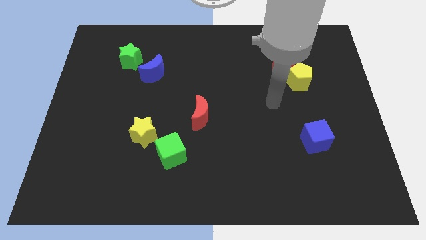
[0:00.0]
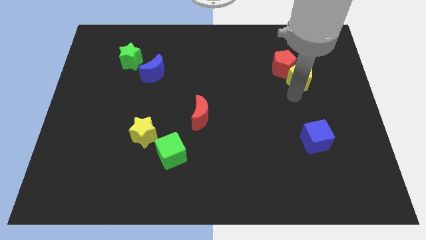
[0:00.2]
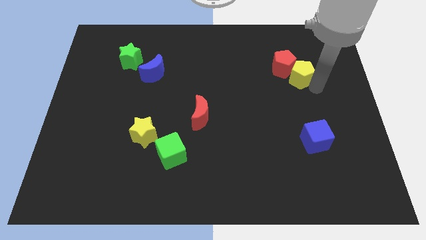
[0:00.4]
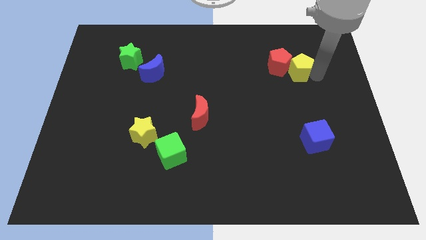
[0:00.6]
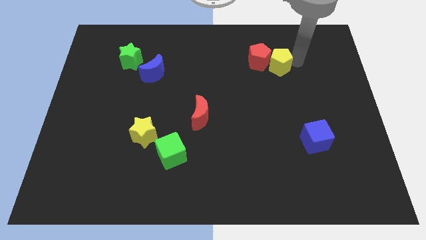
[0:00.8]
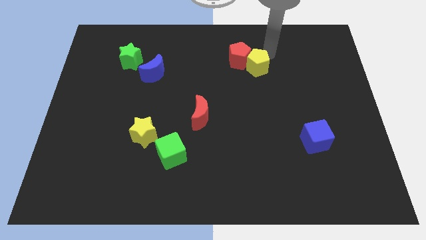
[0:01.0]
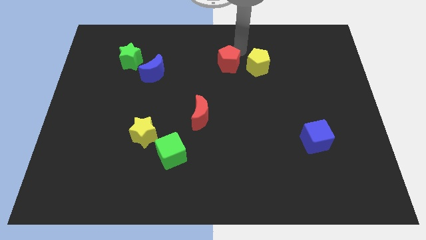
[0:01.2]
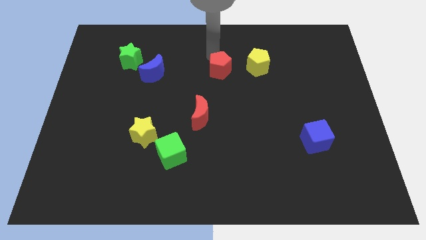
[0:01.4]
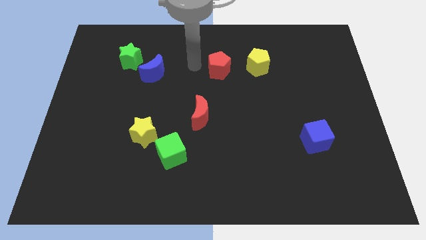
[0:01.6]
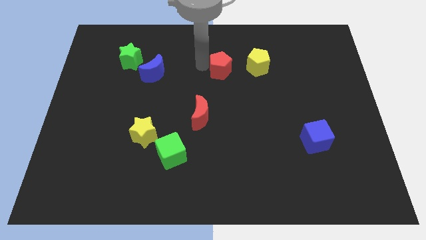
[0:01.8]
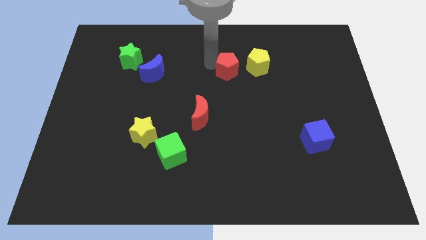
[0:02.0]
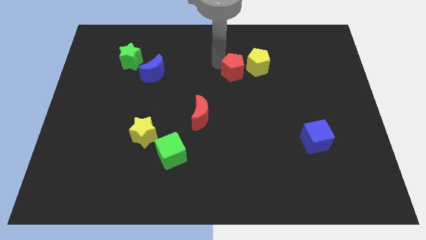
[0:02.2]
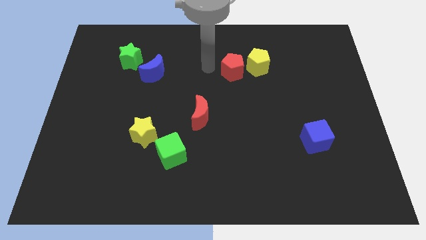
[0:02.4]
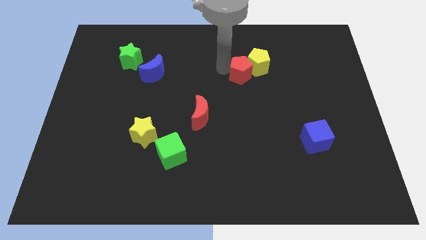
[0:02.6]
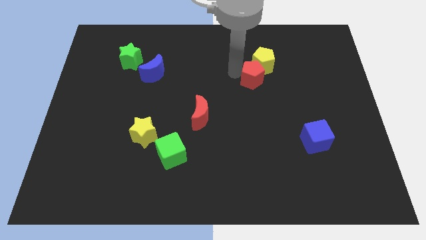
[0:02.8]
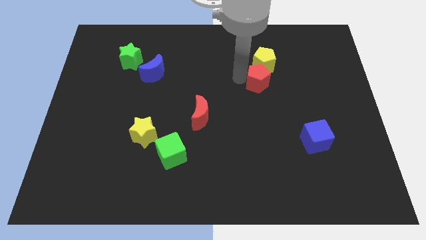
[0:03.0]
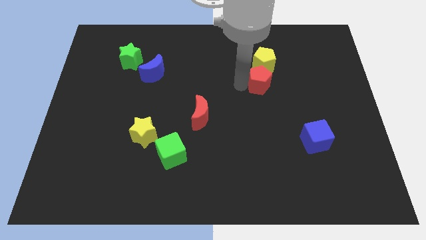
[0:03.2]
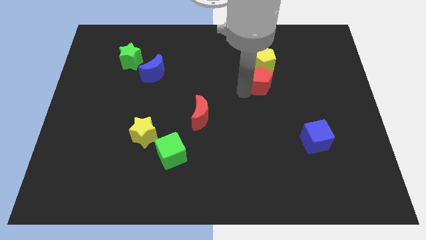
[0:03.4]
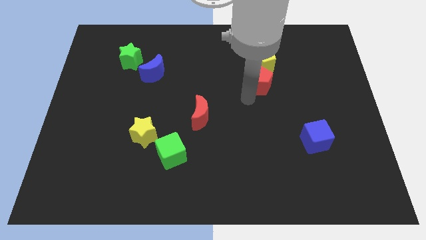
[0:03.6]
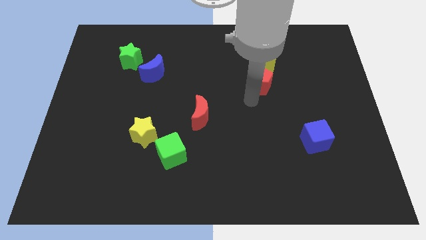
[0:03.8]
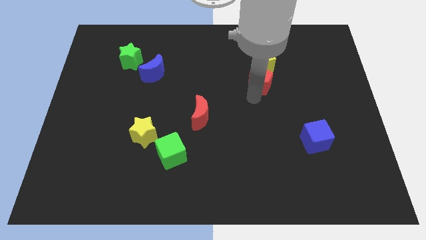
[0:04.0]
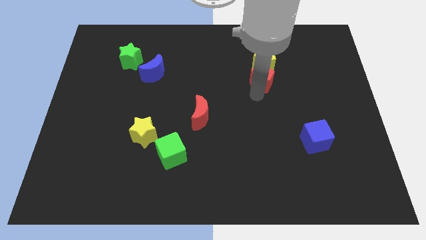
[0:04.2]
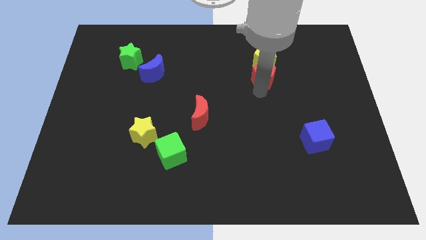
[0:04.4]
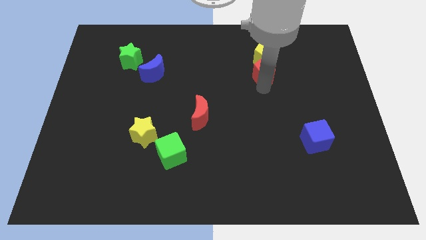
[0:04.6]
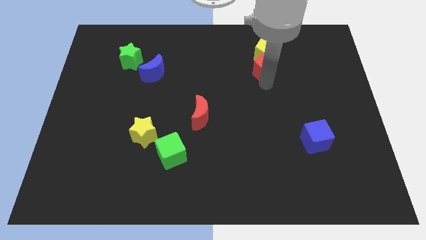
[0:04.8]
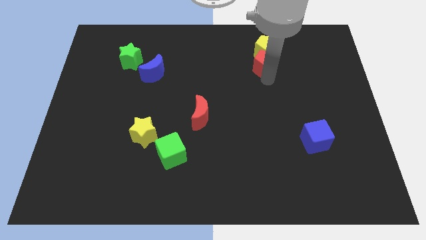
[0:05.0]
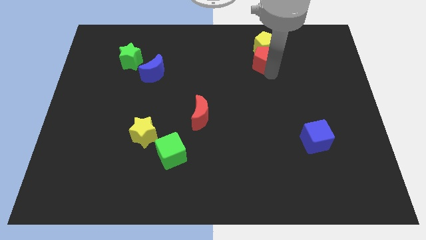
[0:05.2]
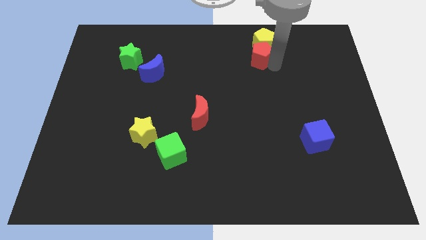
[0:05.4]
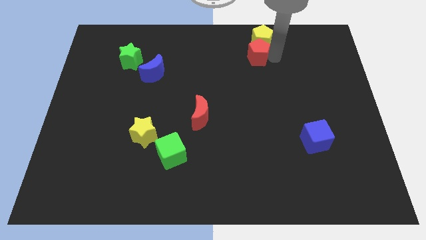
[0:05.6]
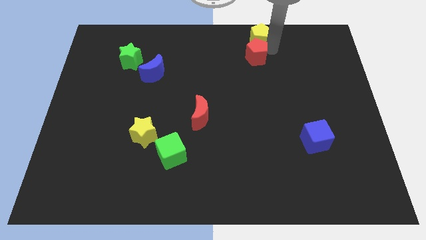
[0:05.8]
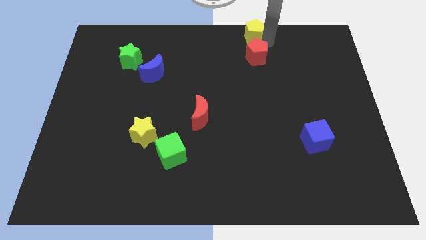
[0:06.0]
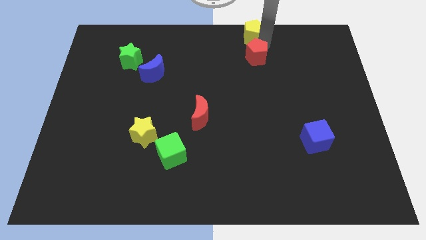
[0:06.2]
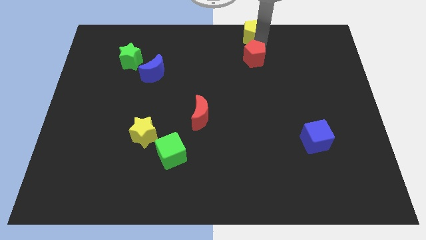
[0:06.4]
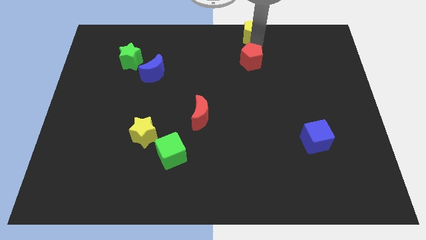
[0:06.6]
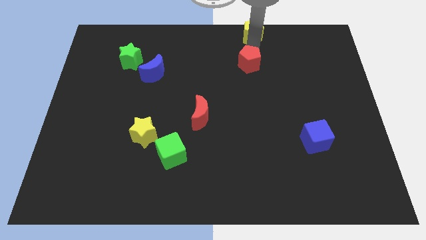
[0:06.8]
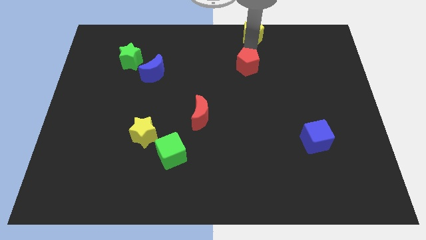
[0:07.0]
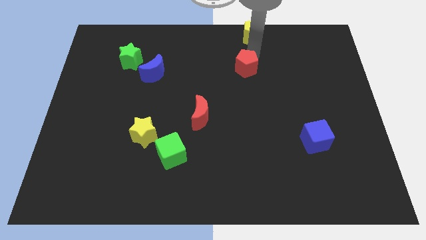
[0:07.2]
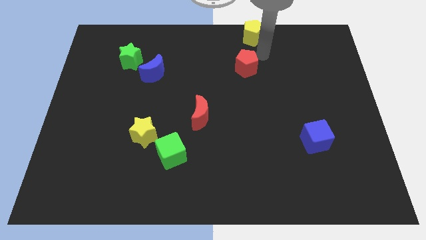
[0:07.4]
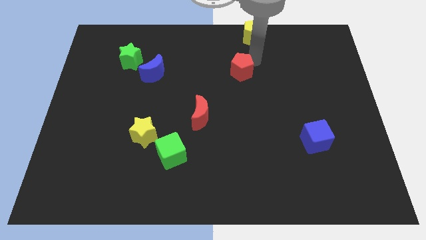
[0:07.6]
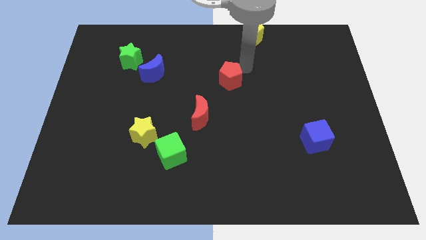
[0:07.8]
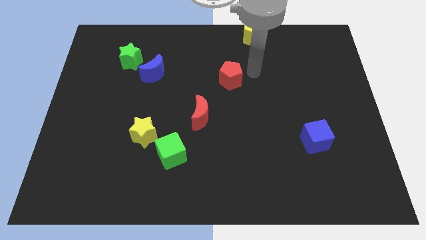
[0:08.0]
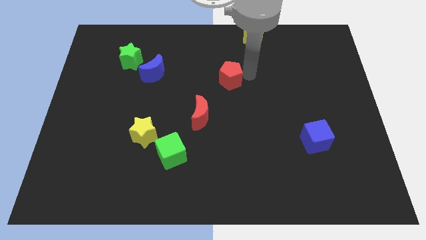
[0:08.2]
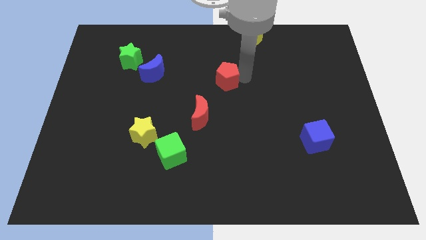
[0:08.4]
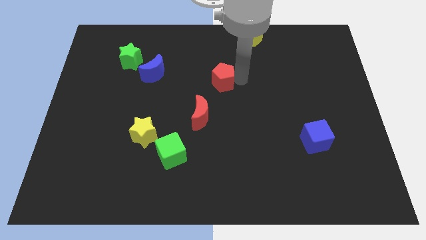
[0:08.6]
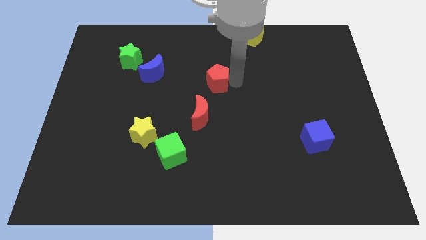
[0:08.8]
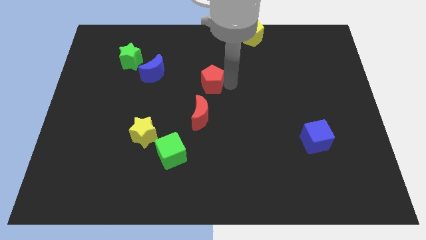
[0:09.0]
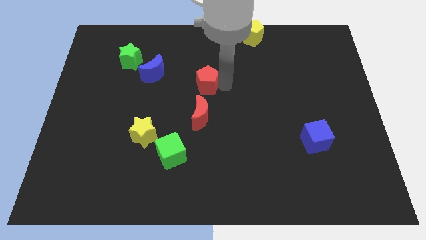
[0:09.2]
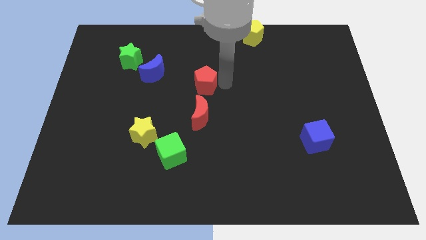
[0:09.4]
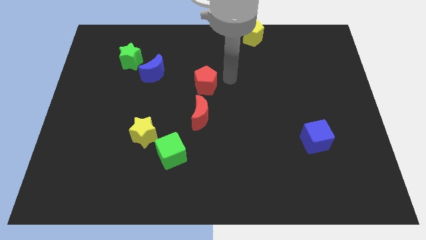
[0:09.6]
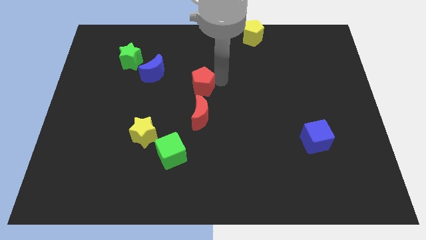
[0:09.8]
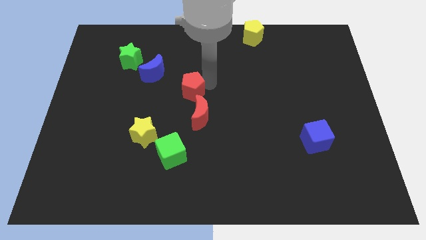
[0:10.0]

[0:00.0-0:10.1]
move the red pentagon to the bottom right of the blue moon

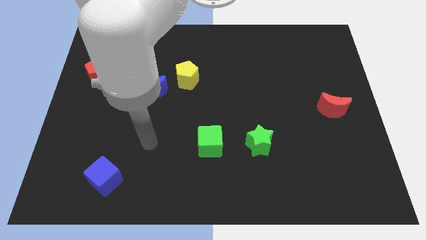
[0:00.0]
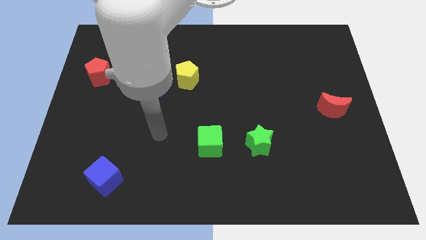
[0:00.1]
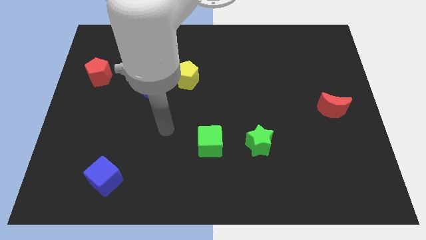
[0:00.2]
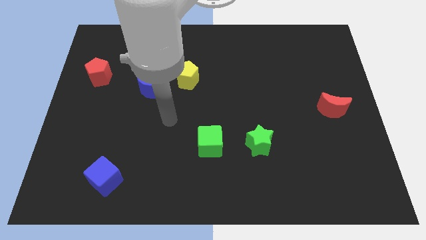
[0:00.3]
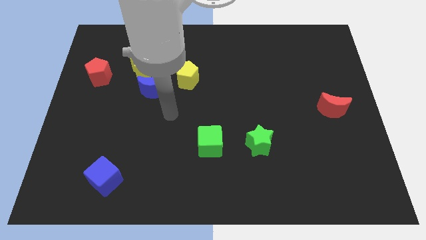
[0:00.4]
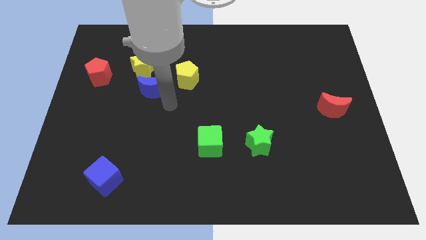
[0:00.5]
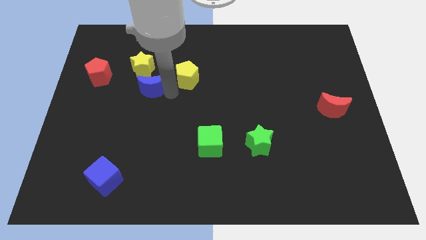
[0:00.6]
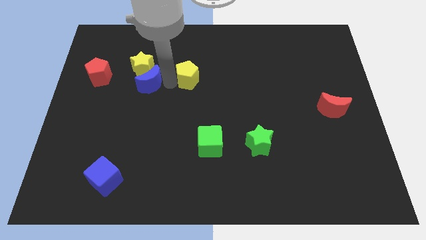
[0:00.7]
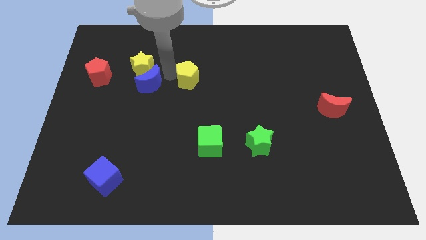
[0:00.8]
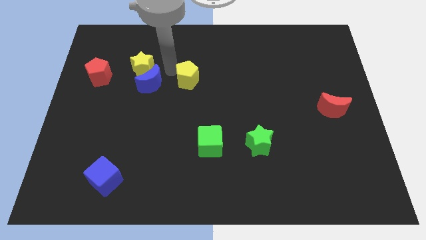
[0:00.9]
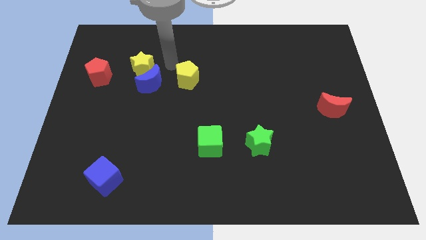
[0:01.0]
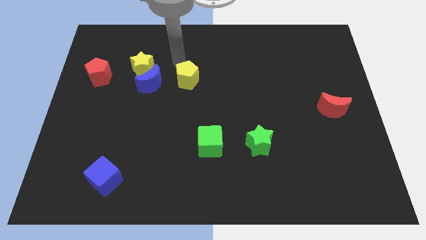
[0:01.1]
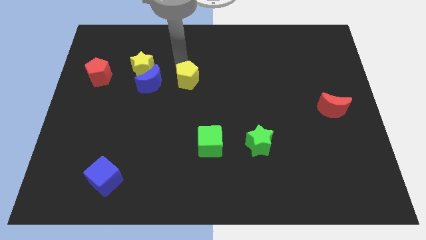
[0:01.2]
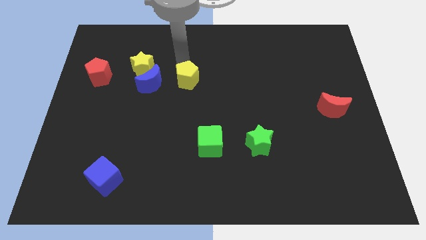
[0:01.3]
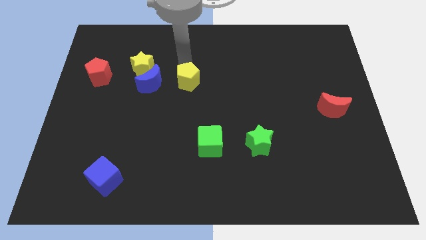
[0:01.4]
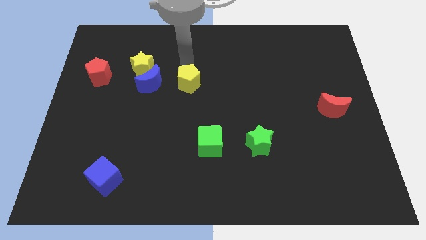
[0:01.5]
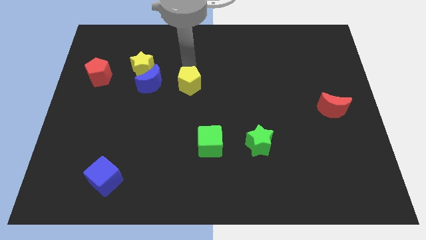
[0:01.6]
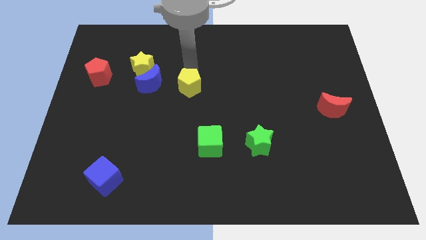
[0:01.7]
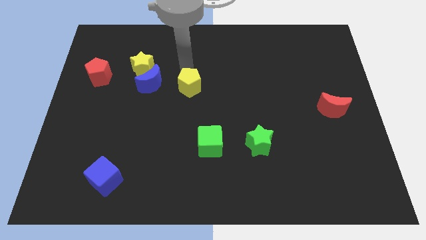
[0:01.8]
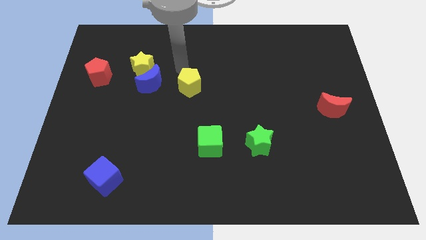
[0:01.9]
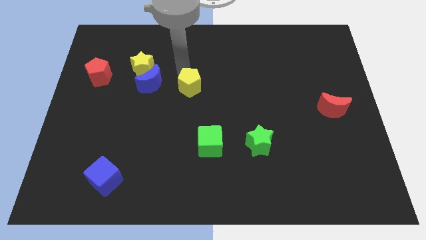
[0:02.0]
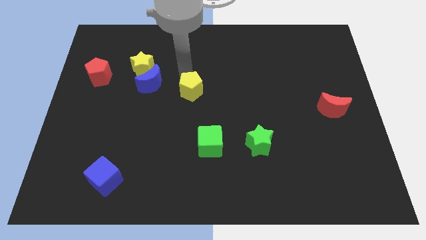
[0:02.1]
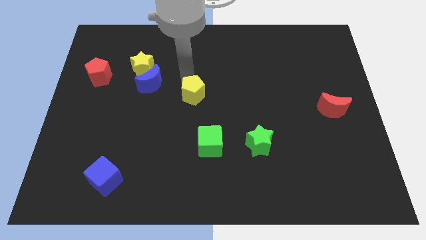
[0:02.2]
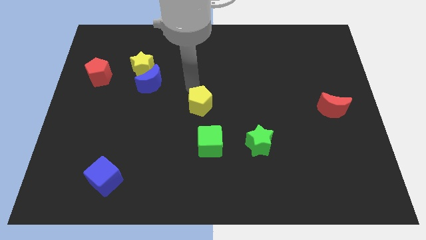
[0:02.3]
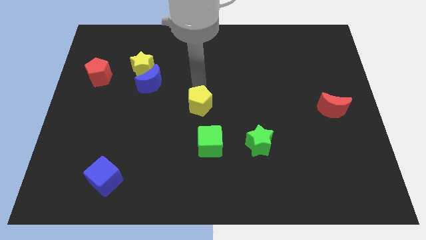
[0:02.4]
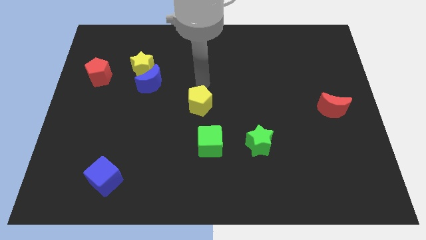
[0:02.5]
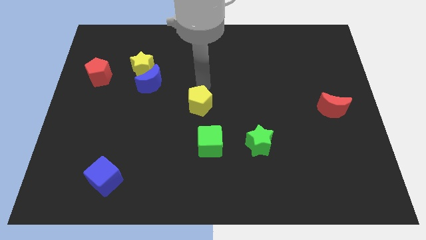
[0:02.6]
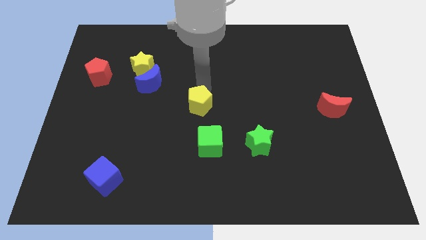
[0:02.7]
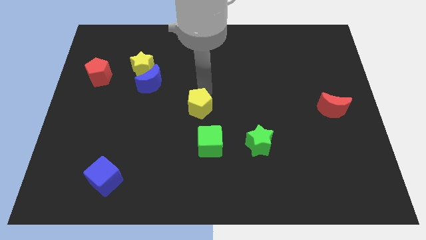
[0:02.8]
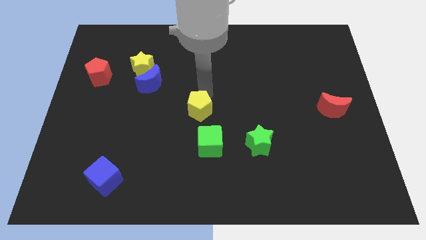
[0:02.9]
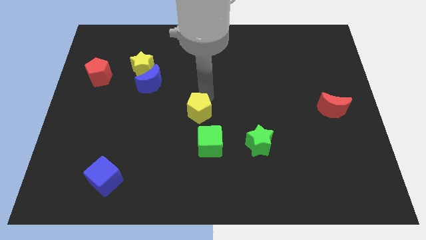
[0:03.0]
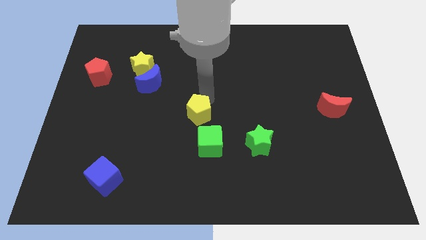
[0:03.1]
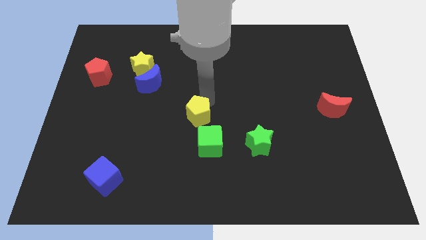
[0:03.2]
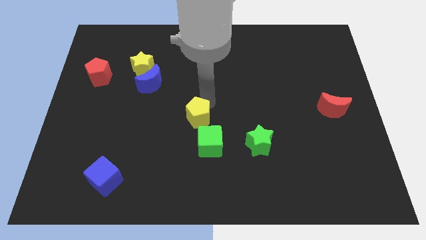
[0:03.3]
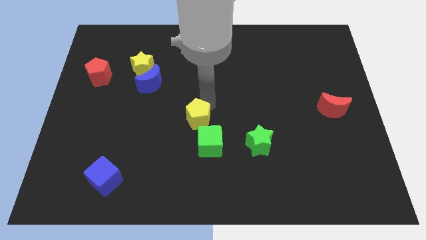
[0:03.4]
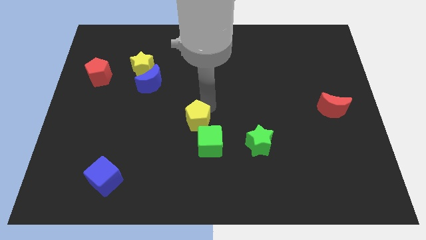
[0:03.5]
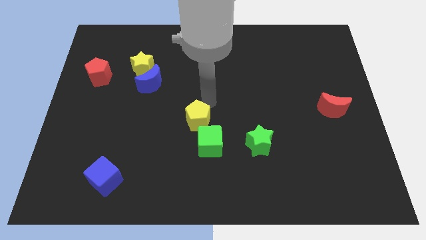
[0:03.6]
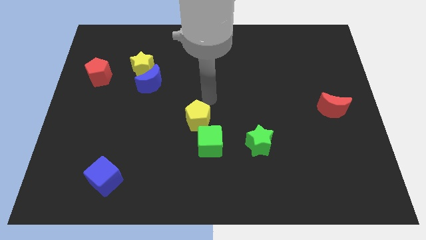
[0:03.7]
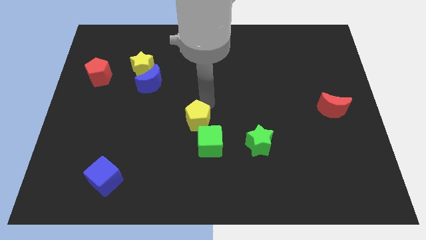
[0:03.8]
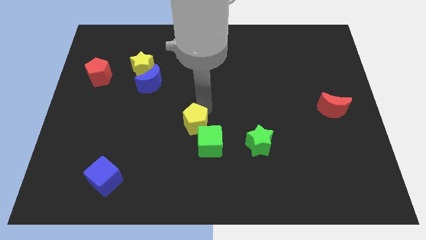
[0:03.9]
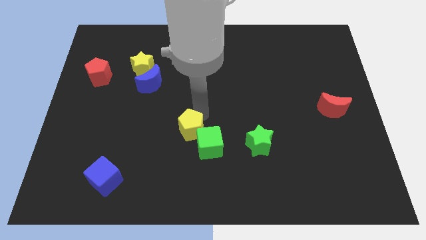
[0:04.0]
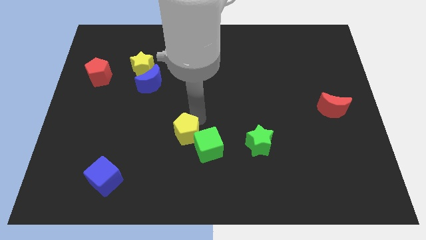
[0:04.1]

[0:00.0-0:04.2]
move the yellow pentagon just left of the green star
